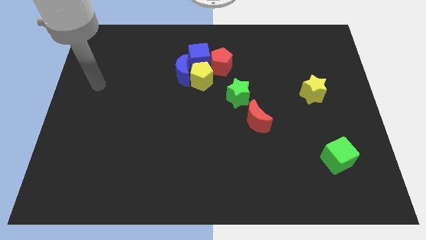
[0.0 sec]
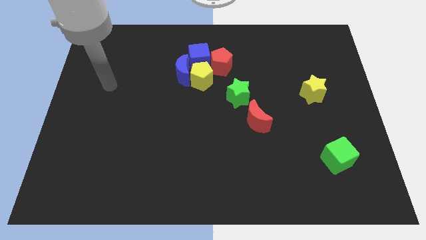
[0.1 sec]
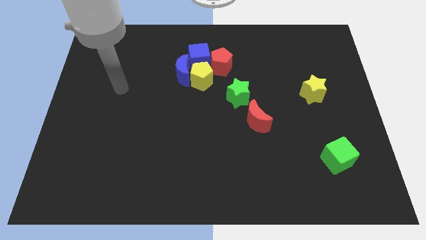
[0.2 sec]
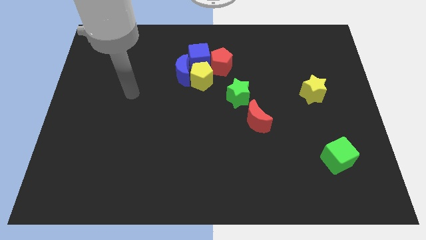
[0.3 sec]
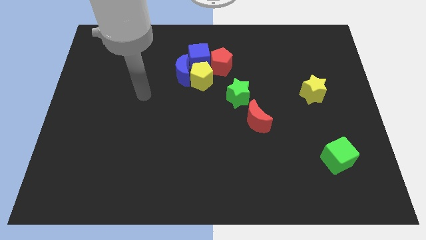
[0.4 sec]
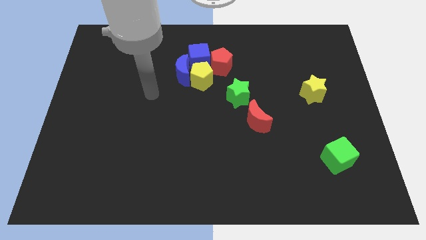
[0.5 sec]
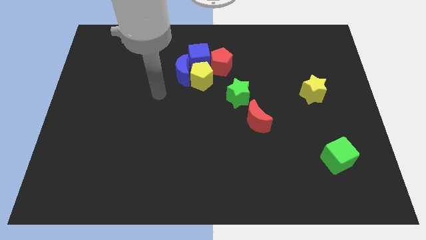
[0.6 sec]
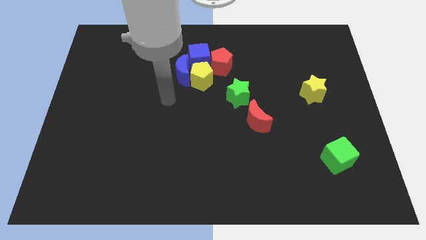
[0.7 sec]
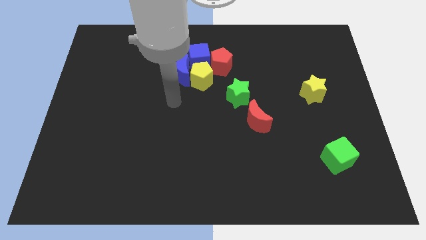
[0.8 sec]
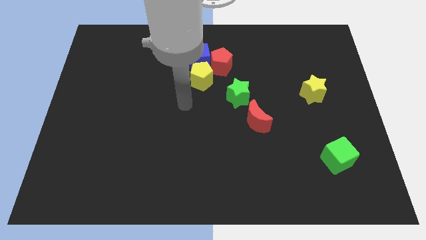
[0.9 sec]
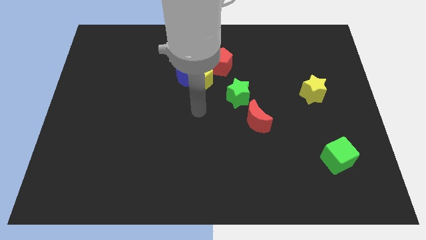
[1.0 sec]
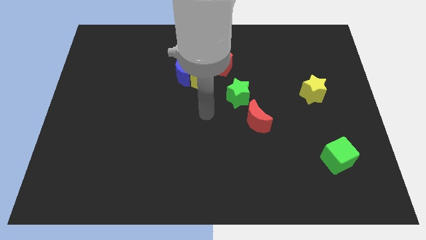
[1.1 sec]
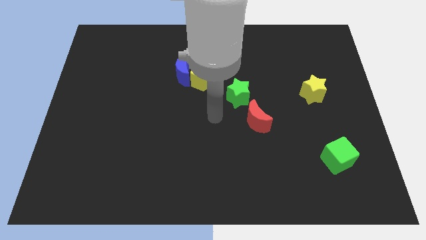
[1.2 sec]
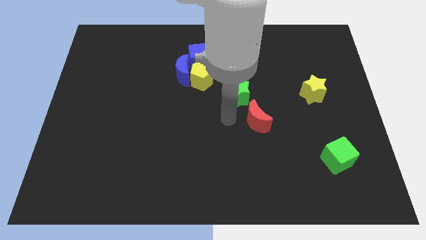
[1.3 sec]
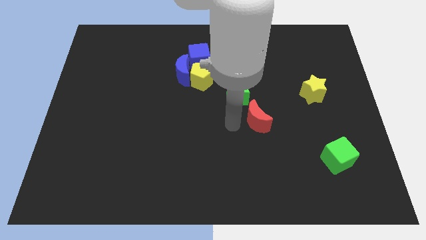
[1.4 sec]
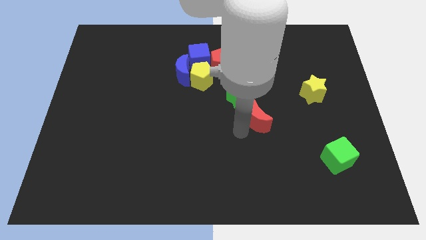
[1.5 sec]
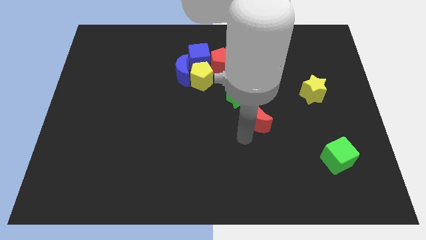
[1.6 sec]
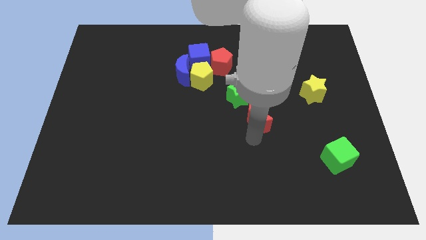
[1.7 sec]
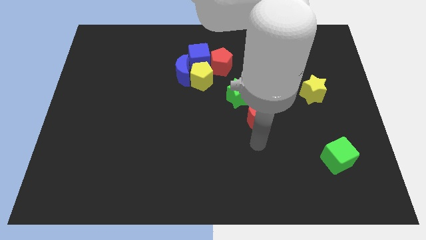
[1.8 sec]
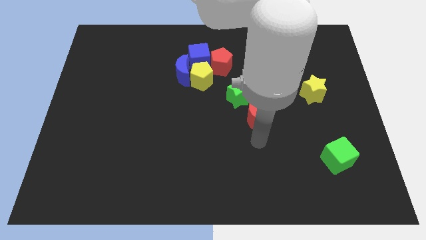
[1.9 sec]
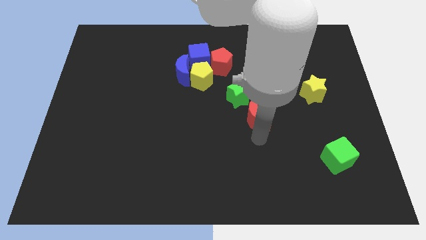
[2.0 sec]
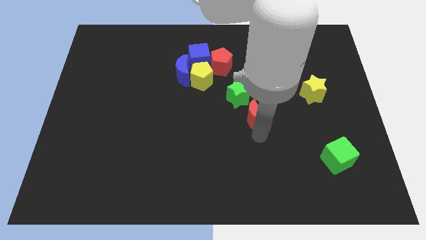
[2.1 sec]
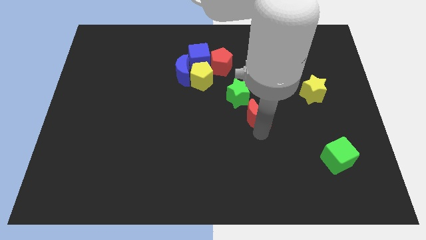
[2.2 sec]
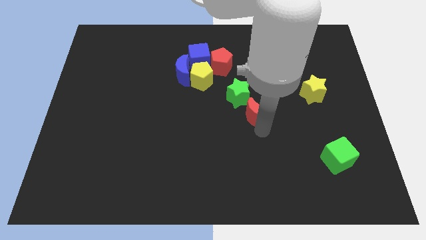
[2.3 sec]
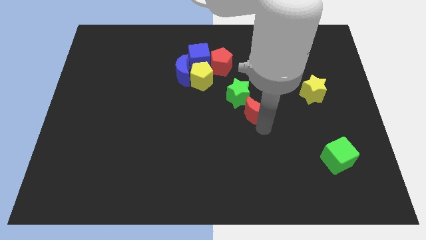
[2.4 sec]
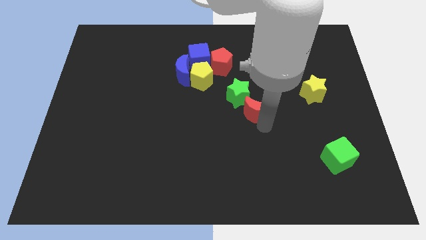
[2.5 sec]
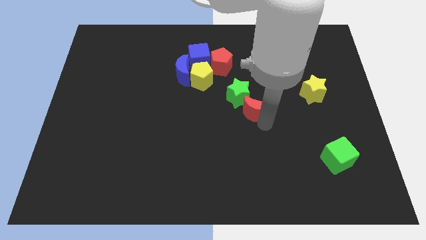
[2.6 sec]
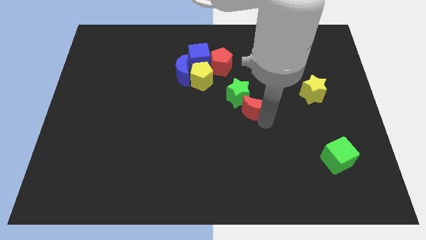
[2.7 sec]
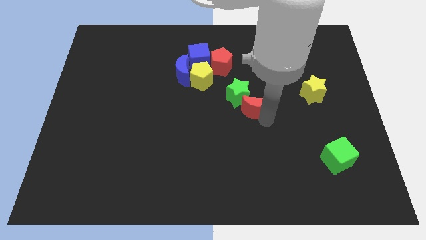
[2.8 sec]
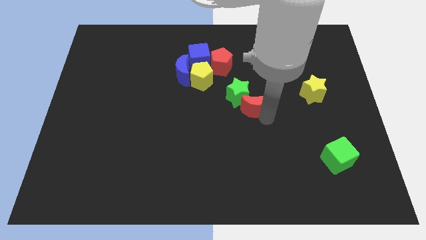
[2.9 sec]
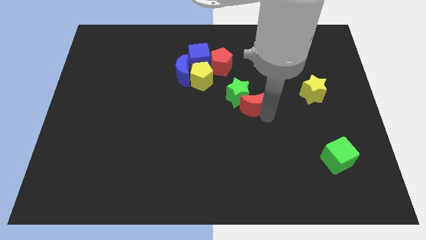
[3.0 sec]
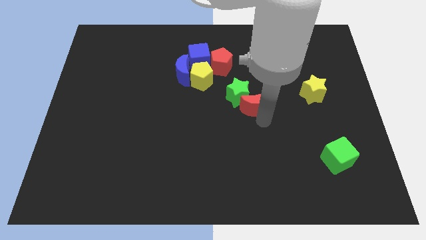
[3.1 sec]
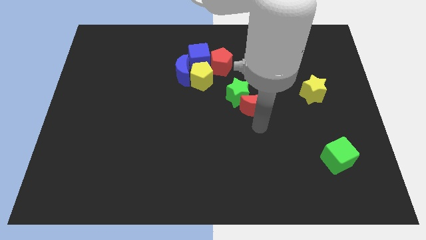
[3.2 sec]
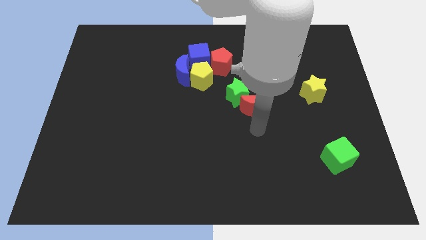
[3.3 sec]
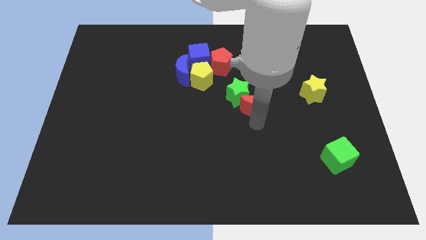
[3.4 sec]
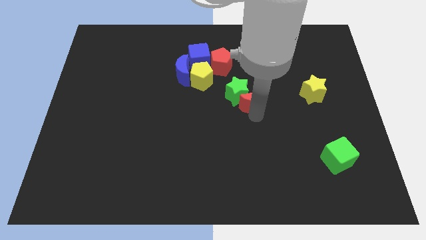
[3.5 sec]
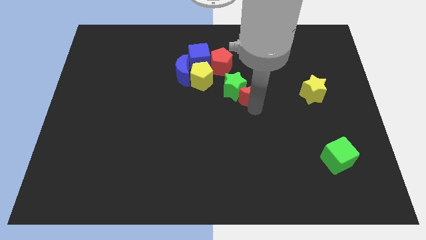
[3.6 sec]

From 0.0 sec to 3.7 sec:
move the red moon slightly up

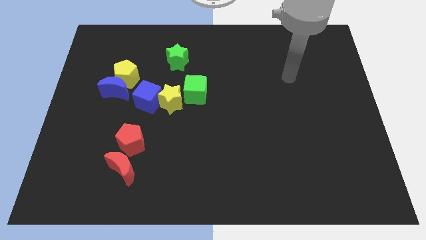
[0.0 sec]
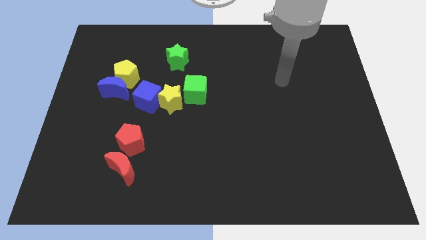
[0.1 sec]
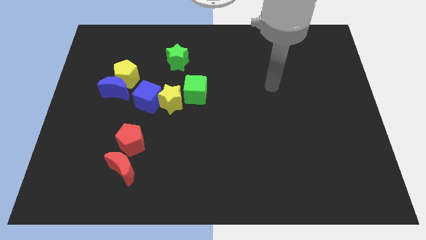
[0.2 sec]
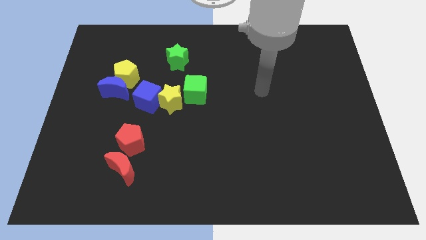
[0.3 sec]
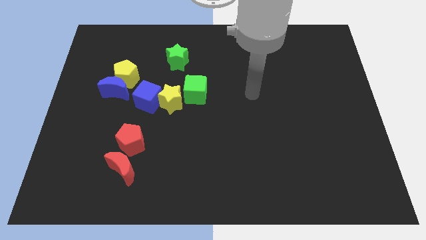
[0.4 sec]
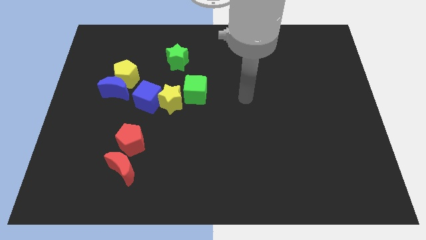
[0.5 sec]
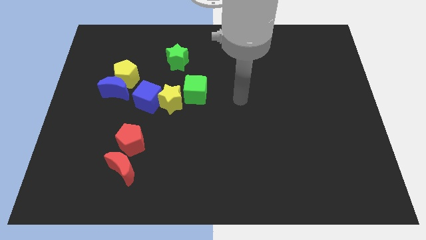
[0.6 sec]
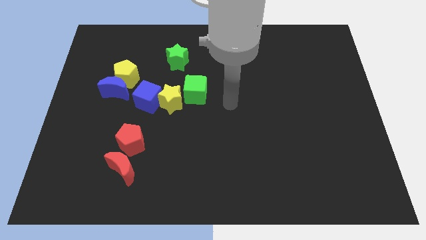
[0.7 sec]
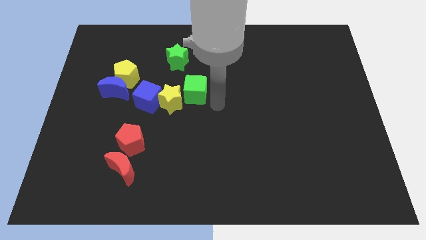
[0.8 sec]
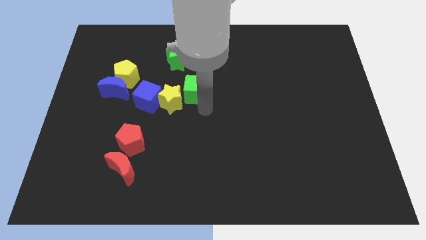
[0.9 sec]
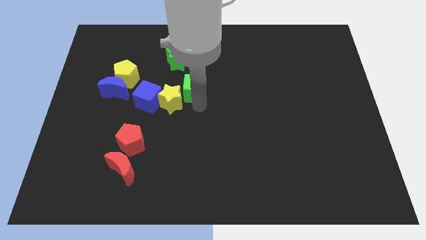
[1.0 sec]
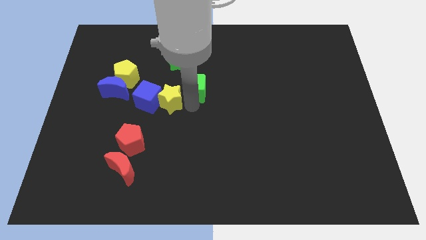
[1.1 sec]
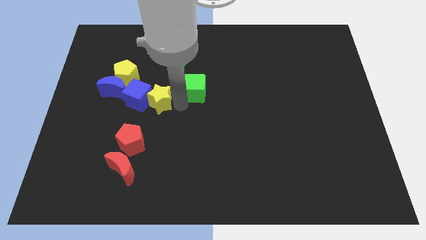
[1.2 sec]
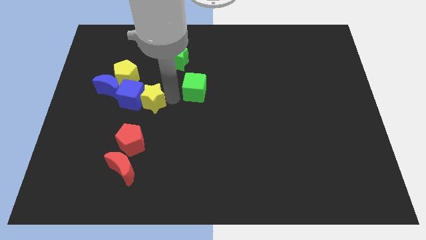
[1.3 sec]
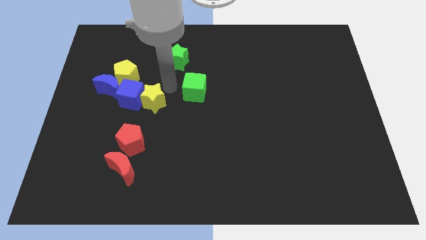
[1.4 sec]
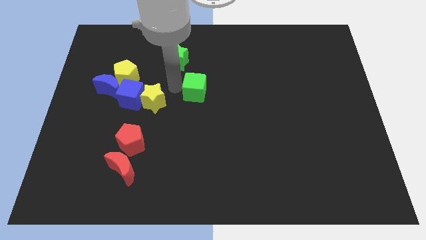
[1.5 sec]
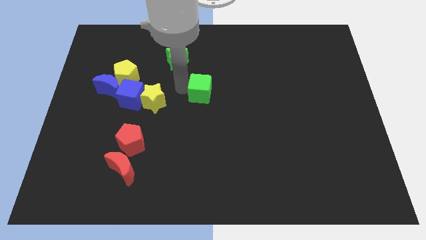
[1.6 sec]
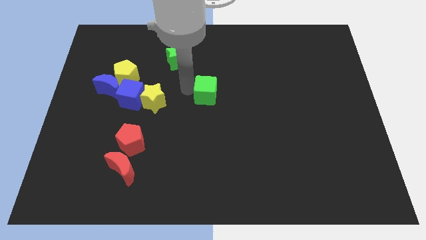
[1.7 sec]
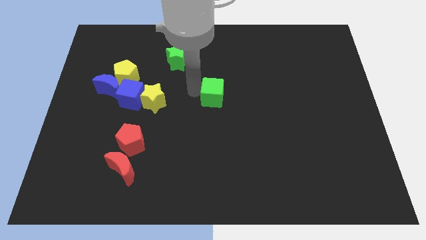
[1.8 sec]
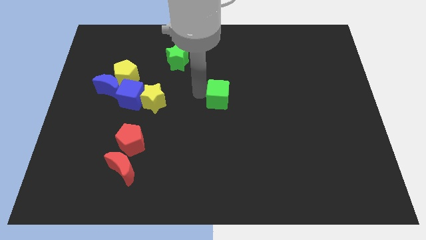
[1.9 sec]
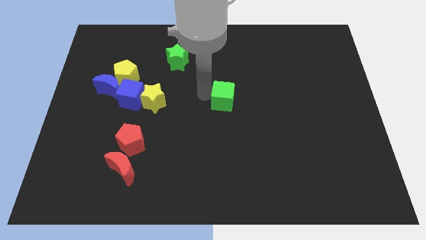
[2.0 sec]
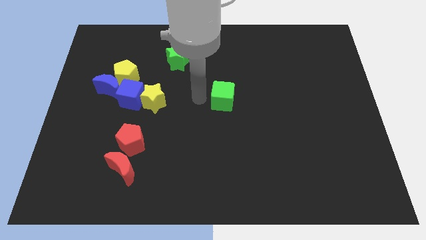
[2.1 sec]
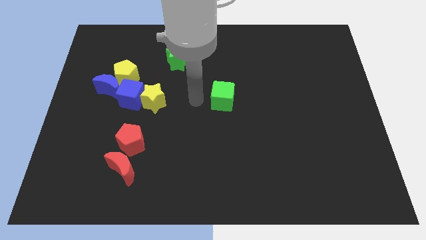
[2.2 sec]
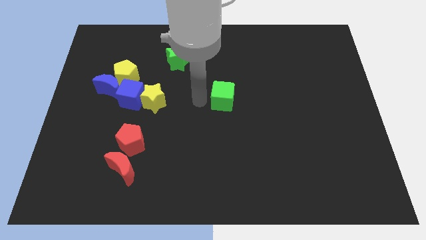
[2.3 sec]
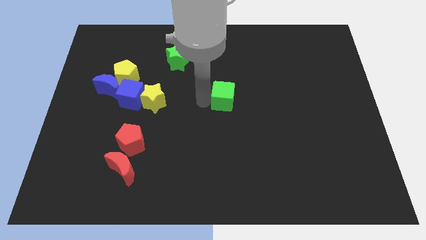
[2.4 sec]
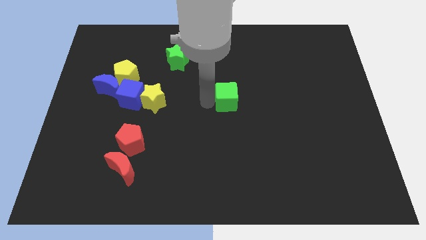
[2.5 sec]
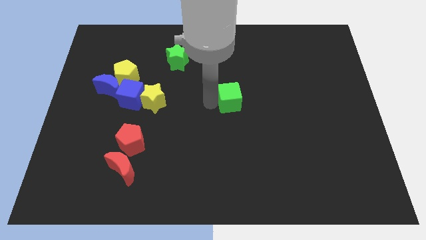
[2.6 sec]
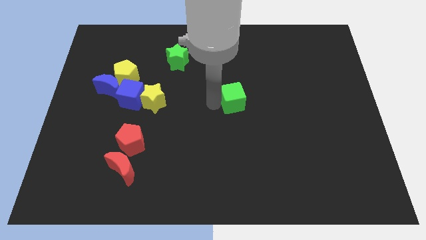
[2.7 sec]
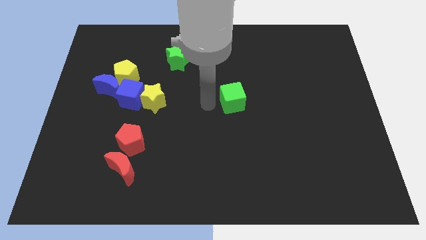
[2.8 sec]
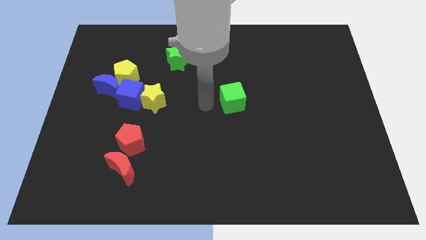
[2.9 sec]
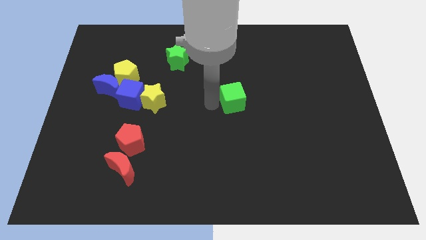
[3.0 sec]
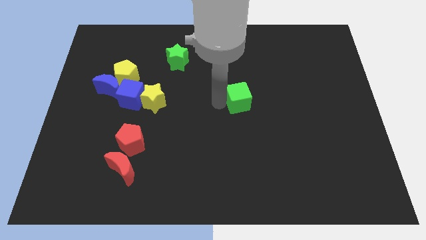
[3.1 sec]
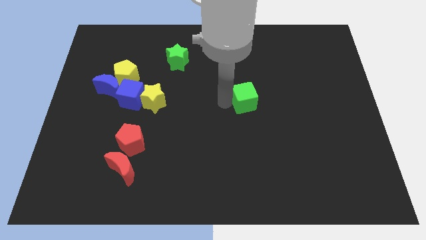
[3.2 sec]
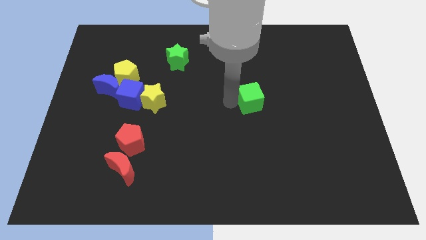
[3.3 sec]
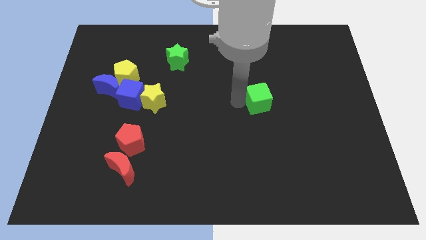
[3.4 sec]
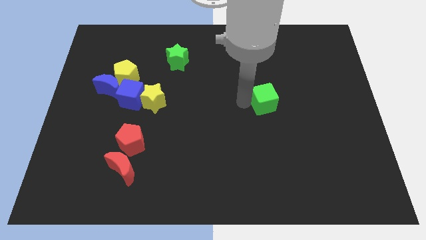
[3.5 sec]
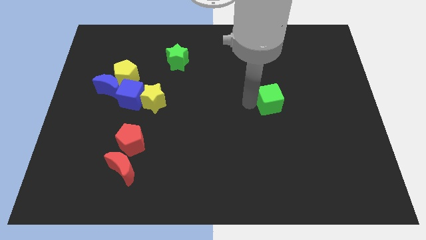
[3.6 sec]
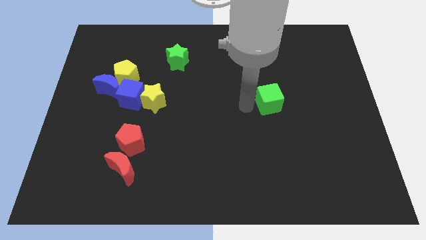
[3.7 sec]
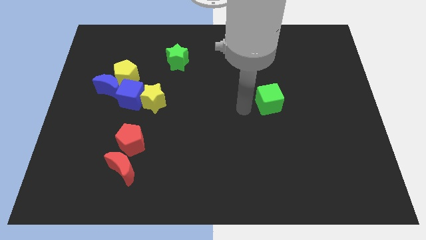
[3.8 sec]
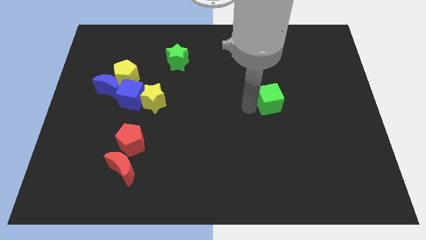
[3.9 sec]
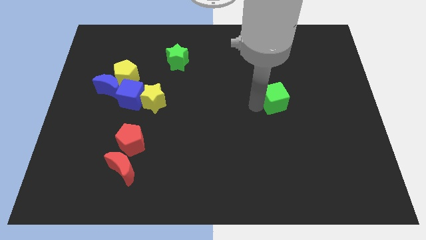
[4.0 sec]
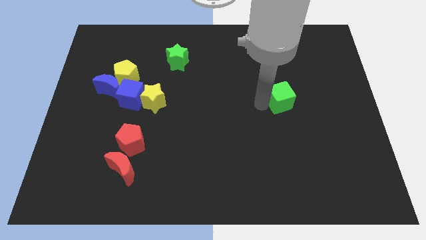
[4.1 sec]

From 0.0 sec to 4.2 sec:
slide the green cube to the right

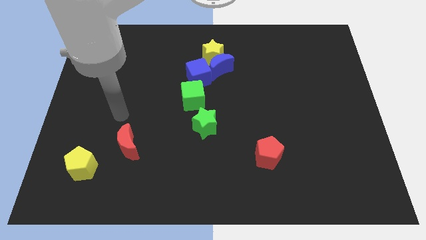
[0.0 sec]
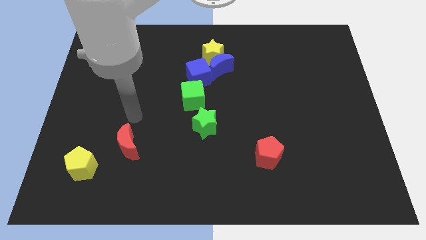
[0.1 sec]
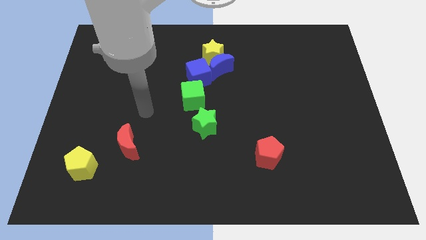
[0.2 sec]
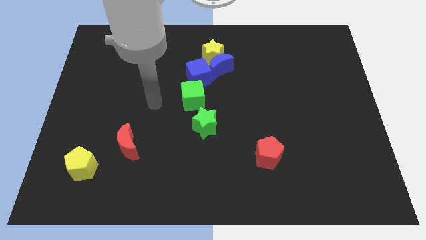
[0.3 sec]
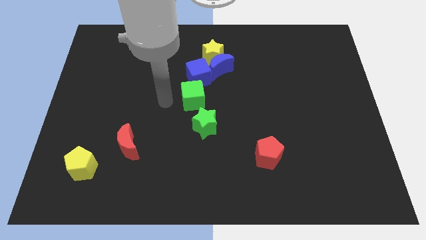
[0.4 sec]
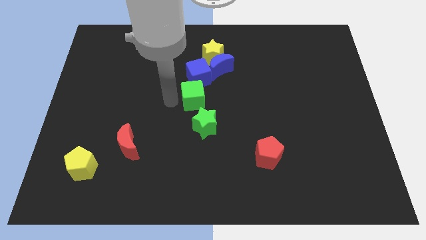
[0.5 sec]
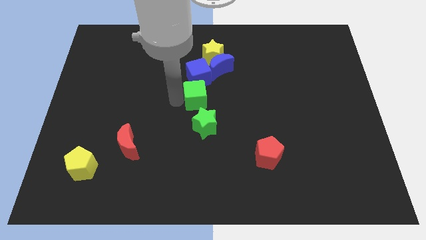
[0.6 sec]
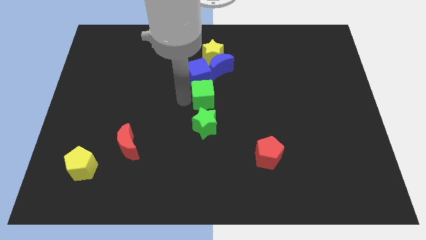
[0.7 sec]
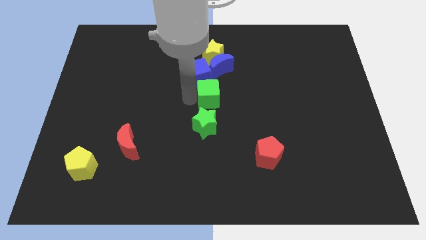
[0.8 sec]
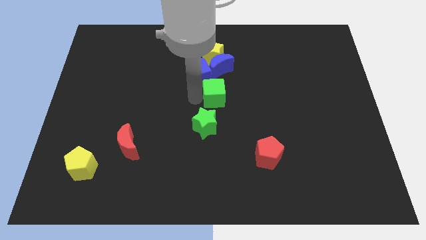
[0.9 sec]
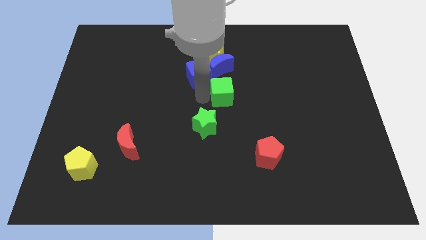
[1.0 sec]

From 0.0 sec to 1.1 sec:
slightly slide the green cube right
